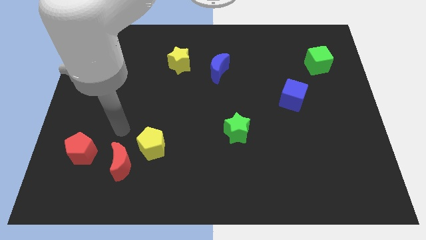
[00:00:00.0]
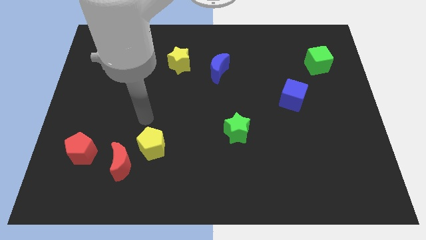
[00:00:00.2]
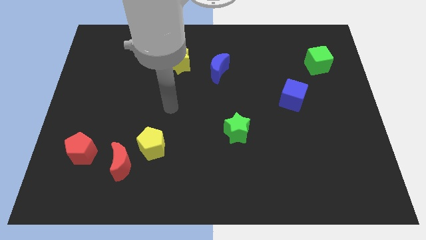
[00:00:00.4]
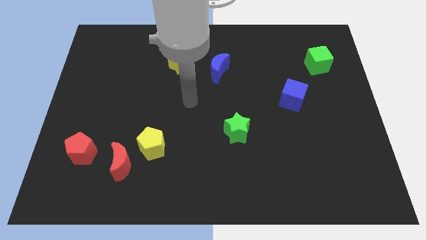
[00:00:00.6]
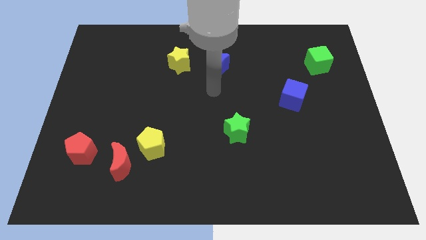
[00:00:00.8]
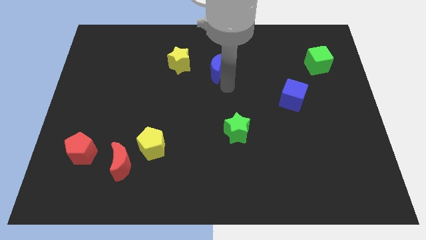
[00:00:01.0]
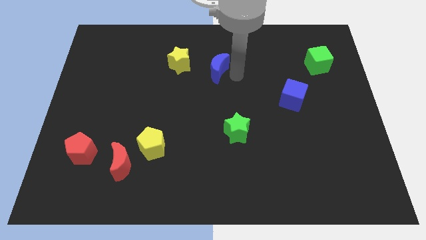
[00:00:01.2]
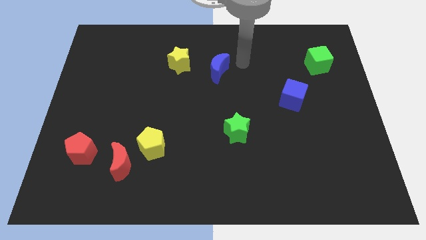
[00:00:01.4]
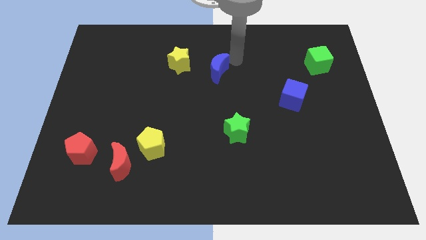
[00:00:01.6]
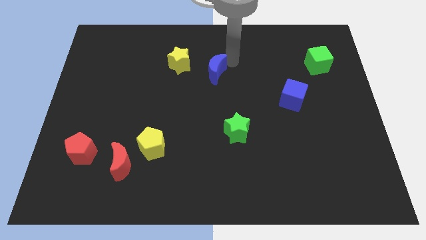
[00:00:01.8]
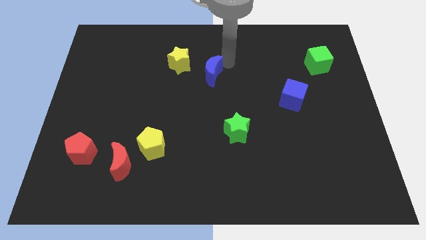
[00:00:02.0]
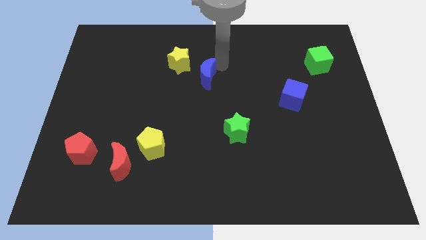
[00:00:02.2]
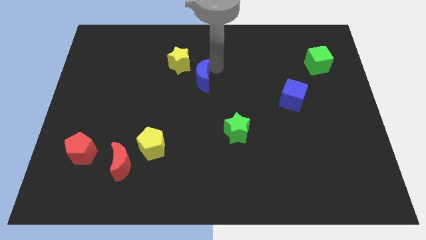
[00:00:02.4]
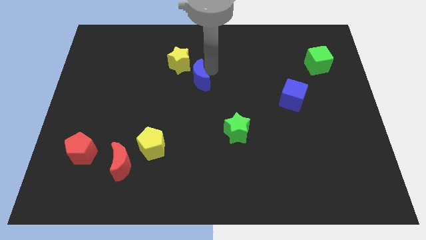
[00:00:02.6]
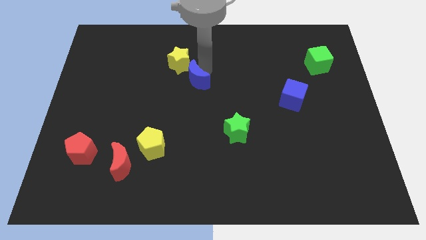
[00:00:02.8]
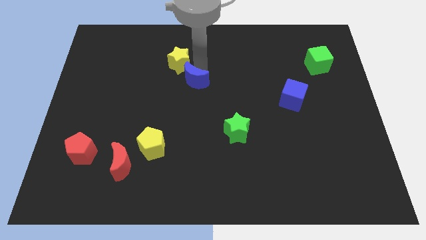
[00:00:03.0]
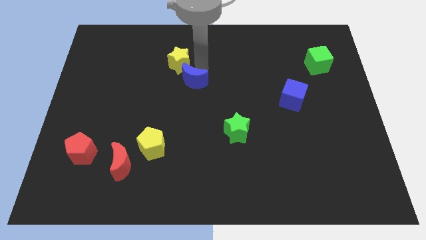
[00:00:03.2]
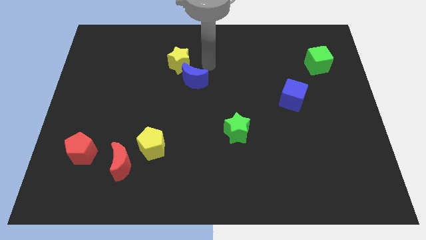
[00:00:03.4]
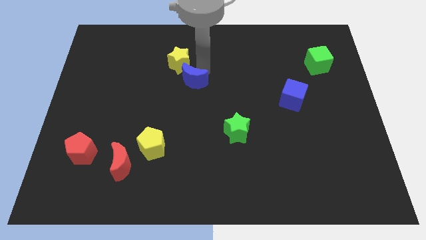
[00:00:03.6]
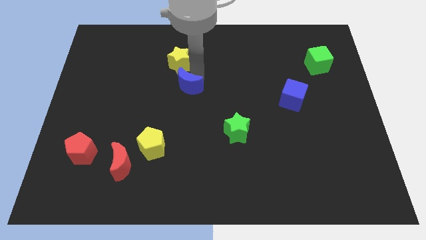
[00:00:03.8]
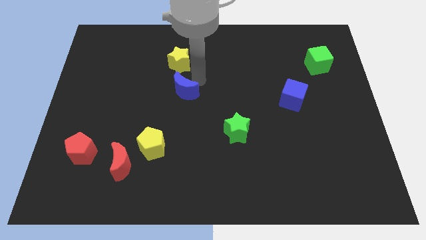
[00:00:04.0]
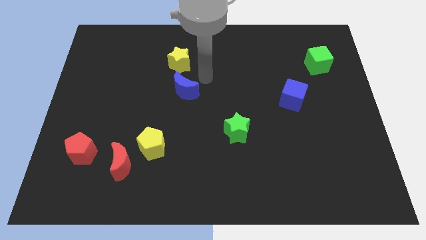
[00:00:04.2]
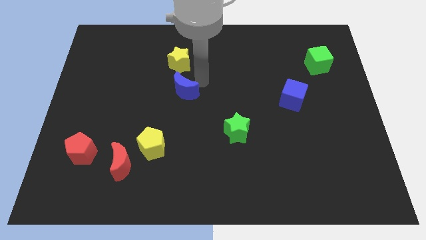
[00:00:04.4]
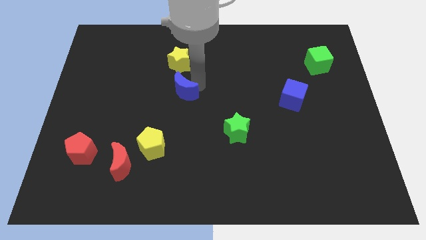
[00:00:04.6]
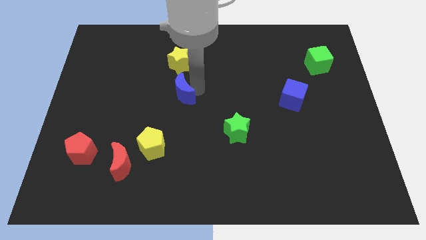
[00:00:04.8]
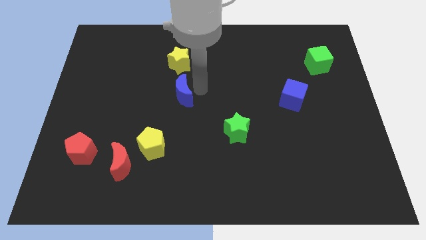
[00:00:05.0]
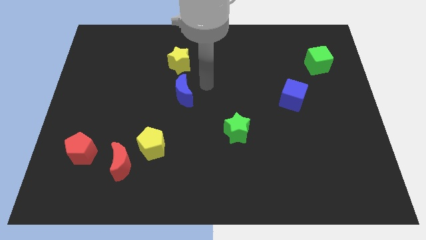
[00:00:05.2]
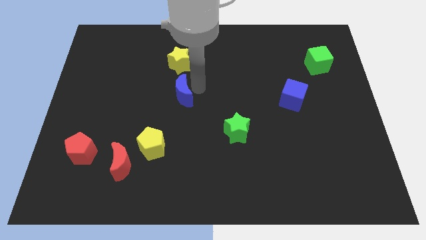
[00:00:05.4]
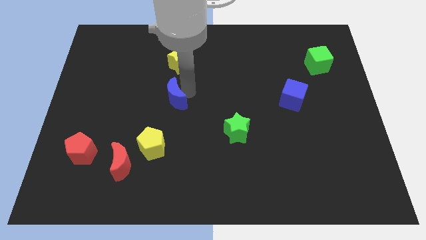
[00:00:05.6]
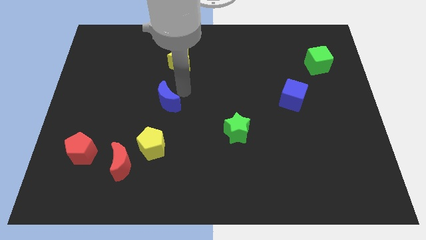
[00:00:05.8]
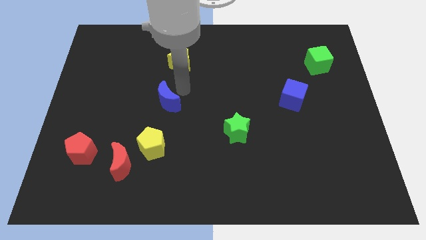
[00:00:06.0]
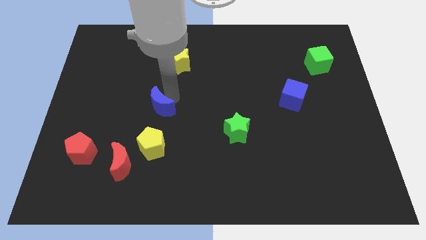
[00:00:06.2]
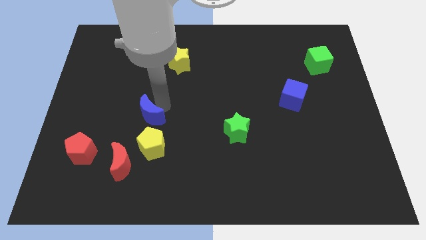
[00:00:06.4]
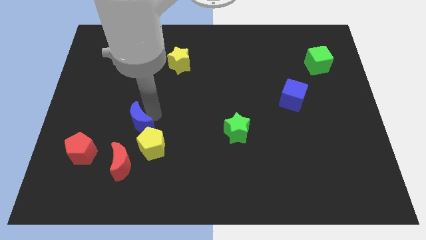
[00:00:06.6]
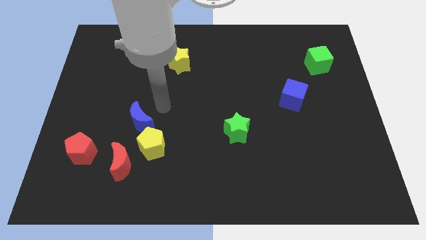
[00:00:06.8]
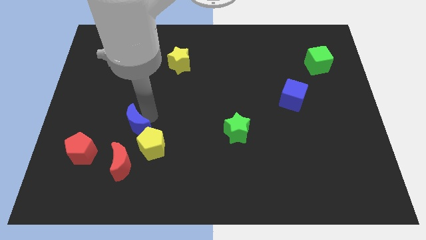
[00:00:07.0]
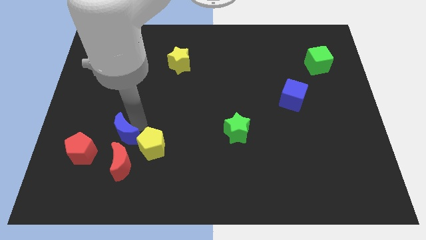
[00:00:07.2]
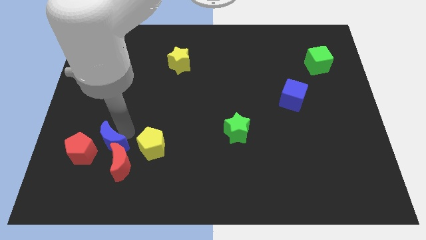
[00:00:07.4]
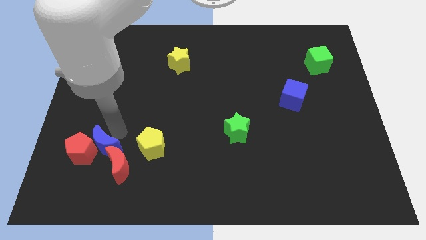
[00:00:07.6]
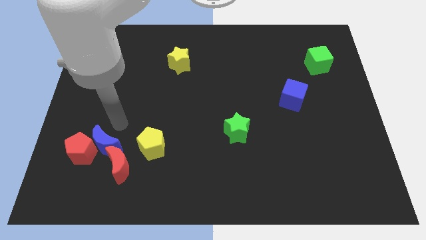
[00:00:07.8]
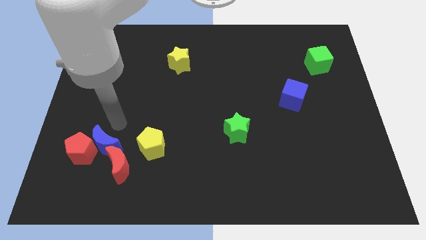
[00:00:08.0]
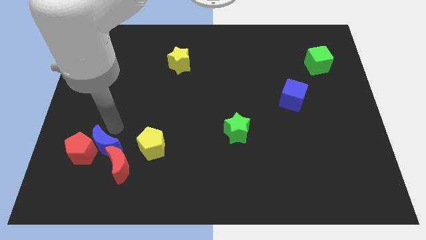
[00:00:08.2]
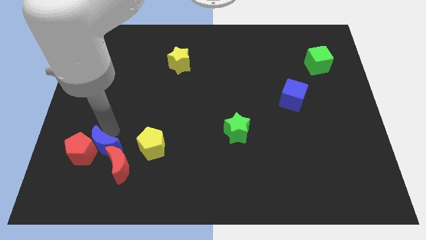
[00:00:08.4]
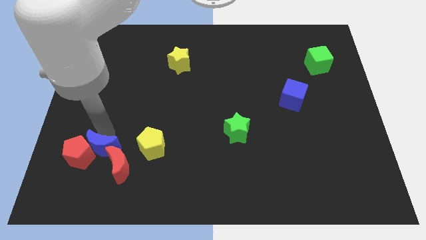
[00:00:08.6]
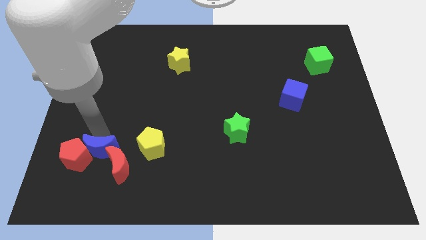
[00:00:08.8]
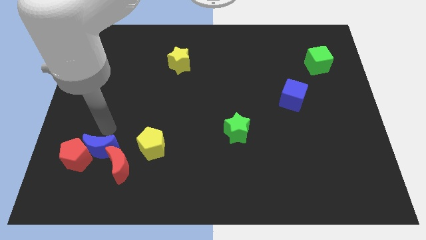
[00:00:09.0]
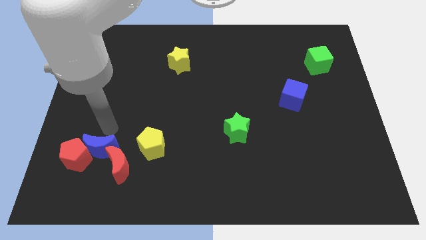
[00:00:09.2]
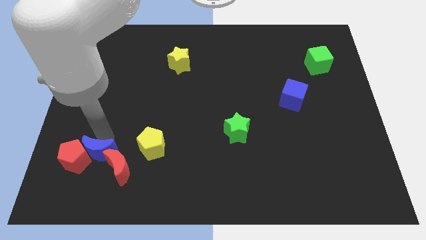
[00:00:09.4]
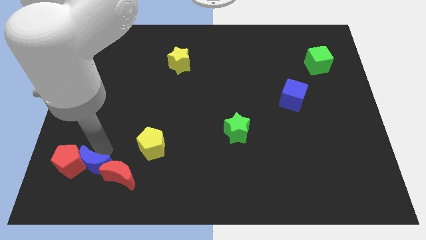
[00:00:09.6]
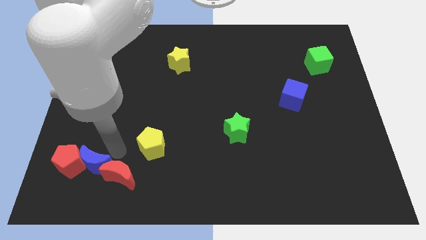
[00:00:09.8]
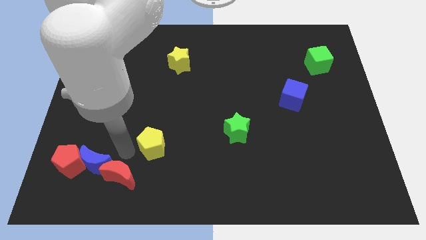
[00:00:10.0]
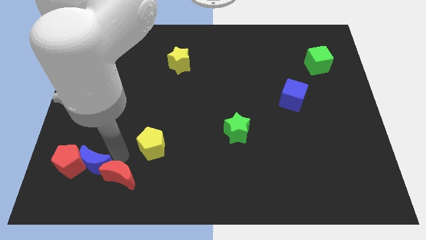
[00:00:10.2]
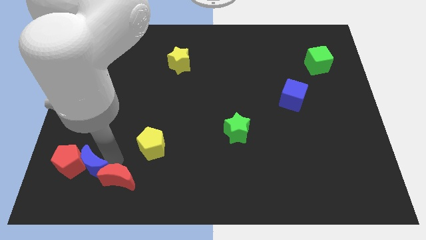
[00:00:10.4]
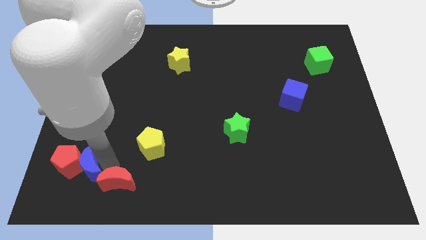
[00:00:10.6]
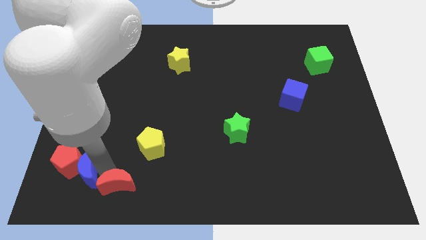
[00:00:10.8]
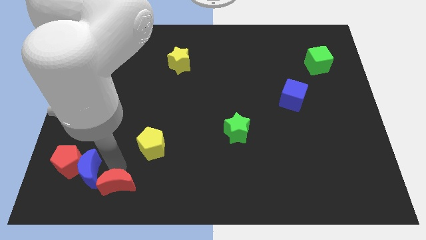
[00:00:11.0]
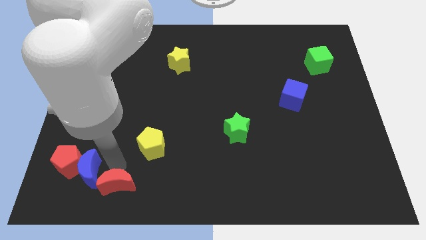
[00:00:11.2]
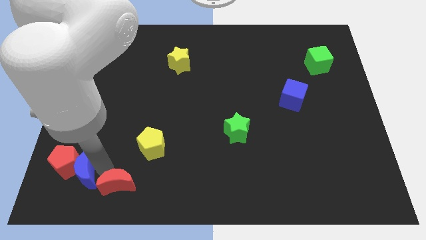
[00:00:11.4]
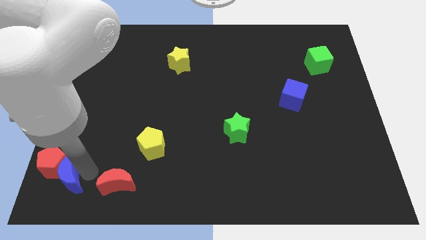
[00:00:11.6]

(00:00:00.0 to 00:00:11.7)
slide the blue moon to the bottom left

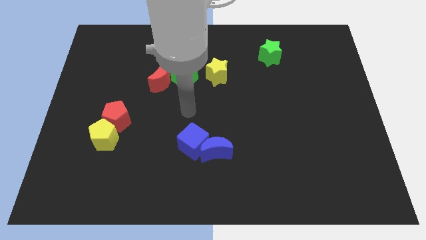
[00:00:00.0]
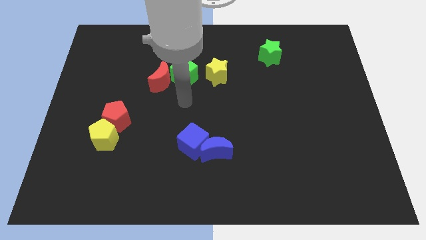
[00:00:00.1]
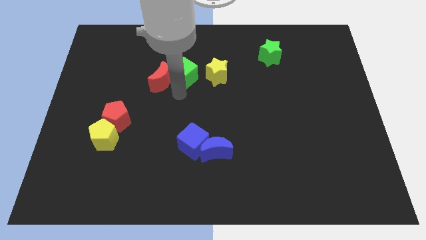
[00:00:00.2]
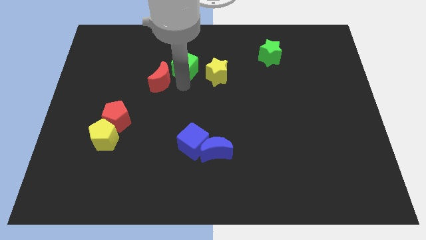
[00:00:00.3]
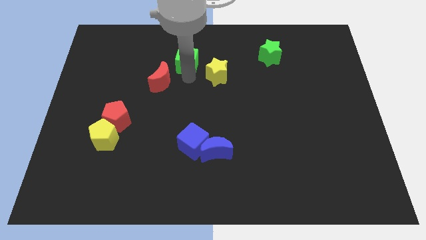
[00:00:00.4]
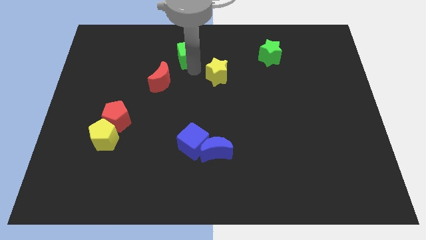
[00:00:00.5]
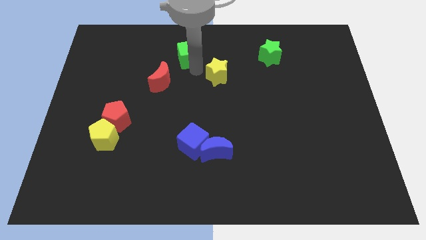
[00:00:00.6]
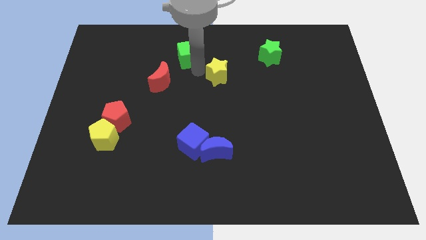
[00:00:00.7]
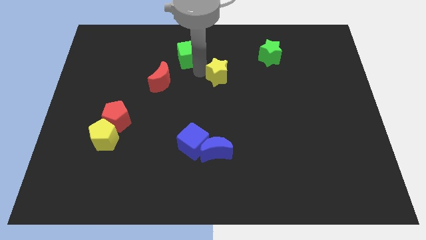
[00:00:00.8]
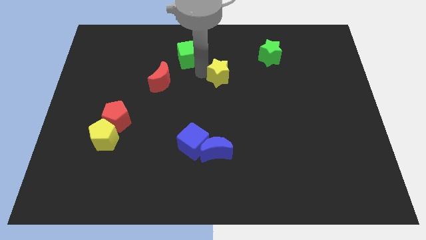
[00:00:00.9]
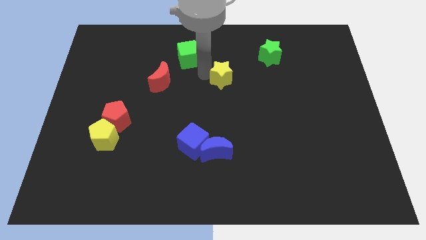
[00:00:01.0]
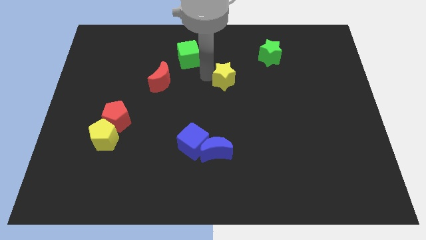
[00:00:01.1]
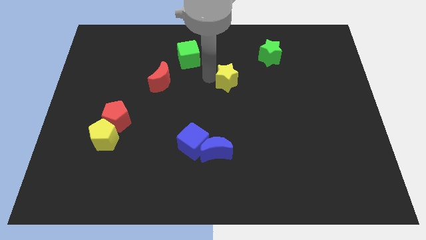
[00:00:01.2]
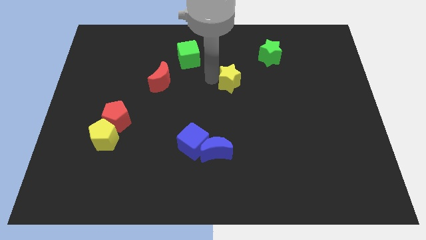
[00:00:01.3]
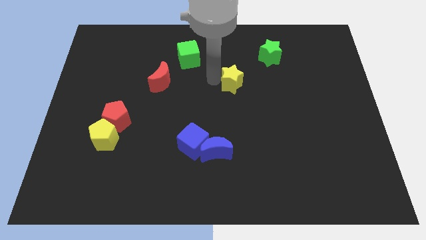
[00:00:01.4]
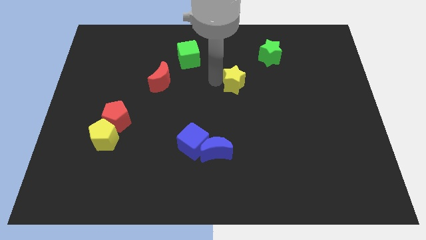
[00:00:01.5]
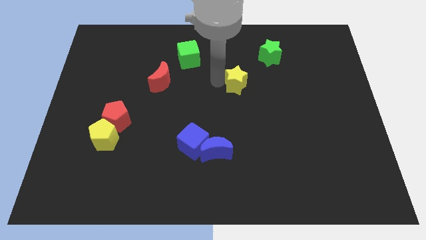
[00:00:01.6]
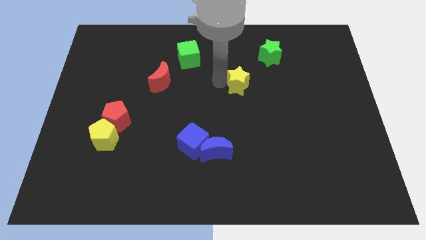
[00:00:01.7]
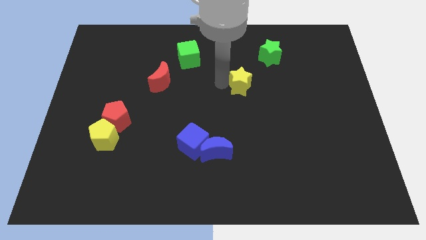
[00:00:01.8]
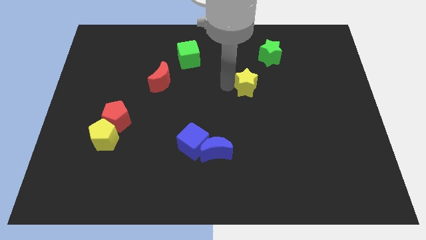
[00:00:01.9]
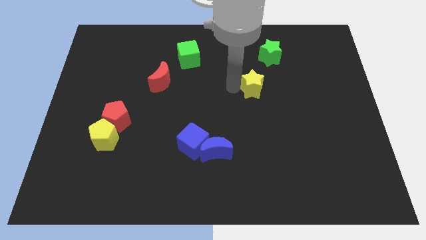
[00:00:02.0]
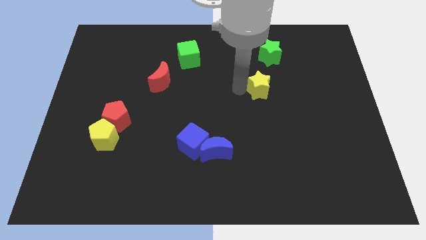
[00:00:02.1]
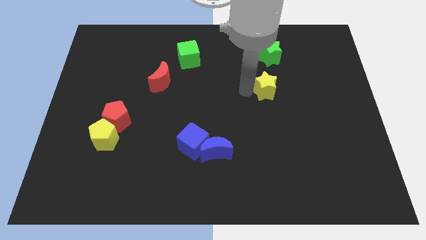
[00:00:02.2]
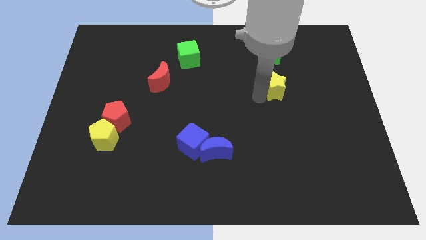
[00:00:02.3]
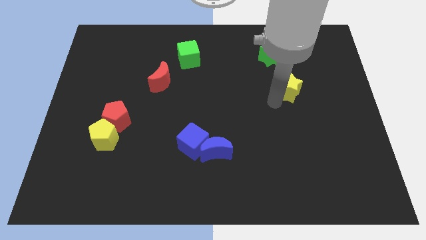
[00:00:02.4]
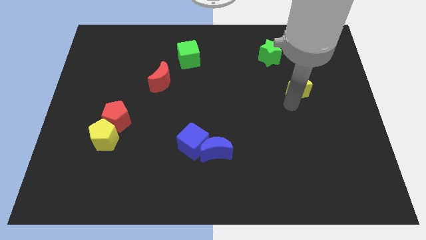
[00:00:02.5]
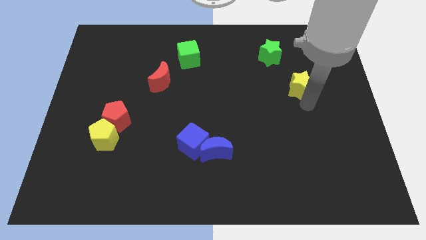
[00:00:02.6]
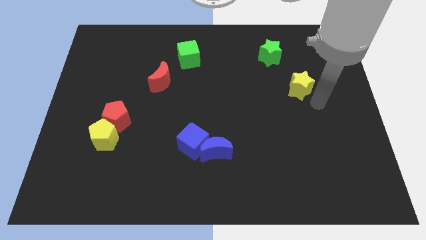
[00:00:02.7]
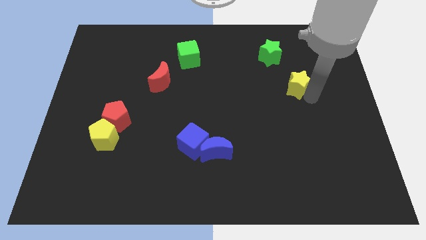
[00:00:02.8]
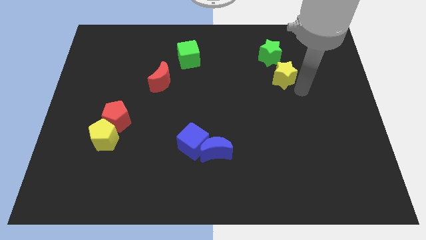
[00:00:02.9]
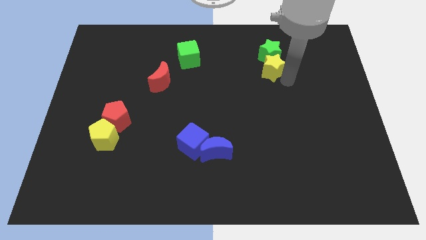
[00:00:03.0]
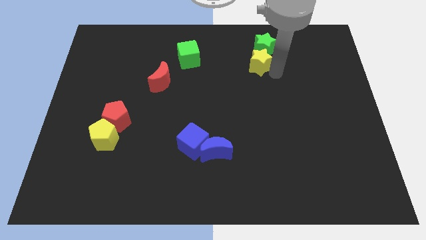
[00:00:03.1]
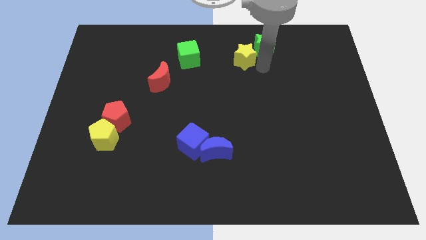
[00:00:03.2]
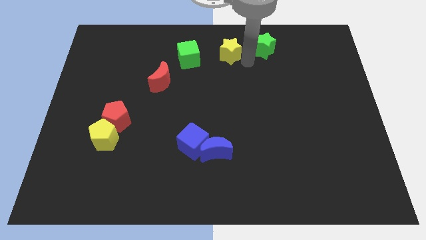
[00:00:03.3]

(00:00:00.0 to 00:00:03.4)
slide the yellow star to the towards your base
